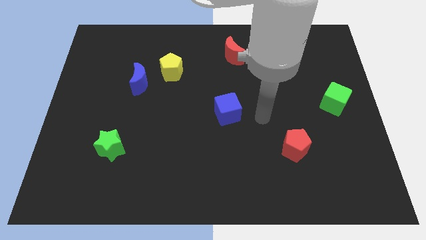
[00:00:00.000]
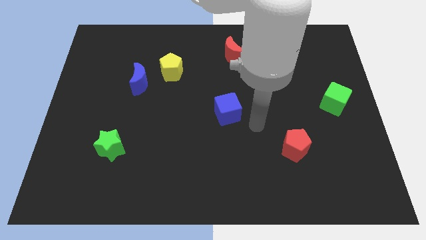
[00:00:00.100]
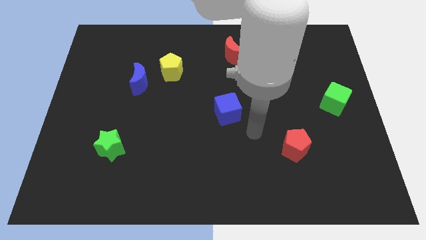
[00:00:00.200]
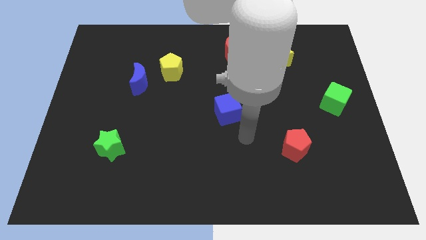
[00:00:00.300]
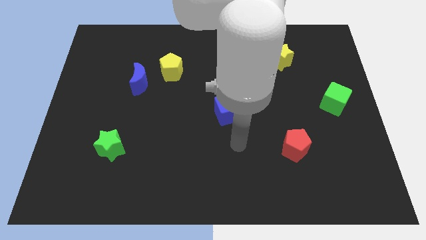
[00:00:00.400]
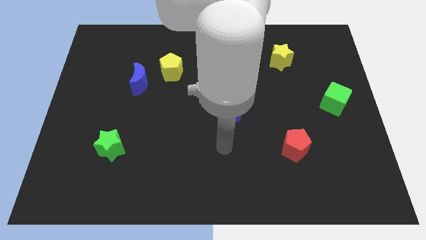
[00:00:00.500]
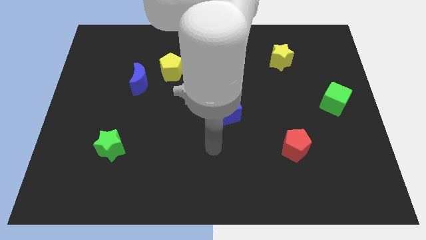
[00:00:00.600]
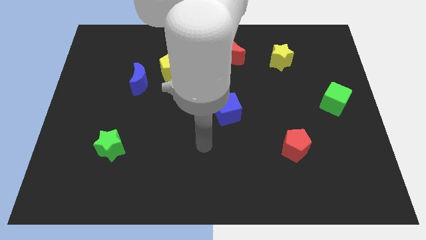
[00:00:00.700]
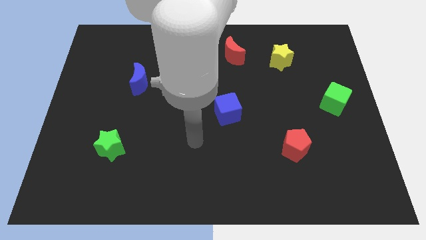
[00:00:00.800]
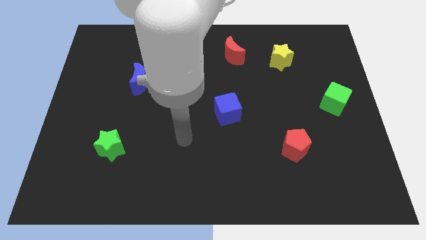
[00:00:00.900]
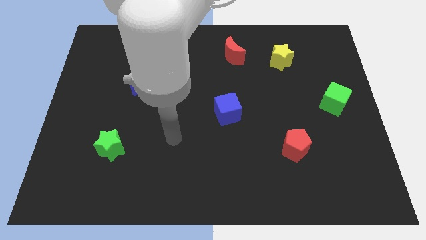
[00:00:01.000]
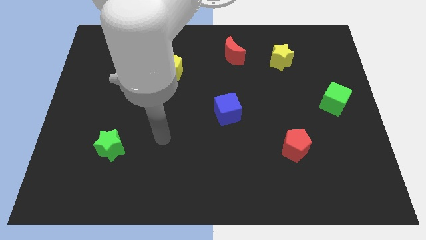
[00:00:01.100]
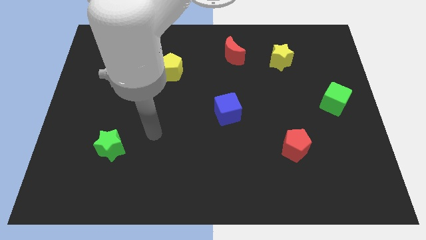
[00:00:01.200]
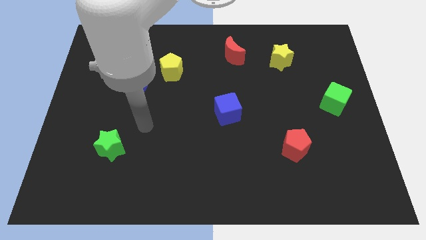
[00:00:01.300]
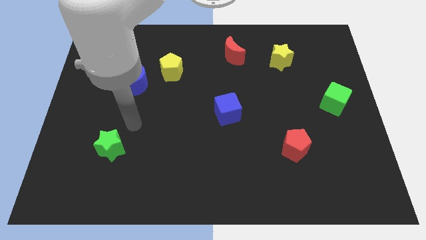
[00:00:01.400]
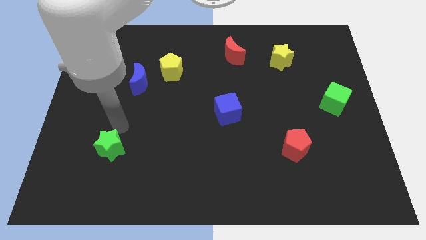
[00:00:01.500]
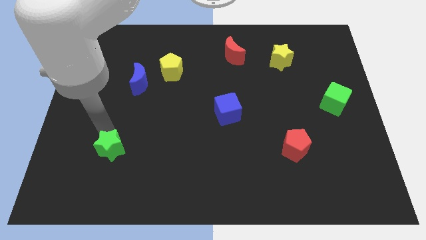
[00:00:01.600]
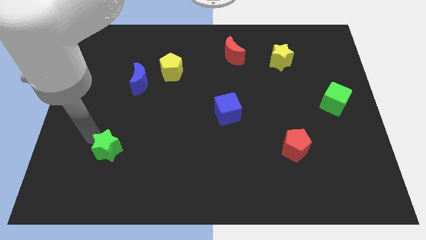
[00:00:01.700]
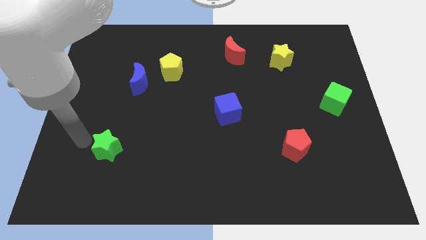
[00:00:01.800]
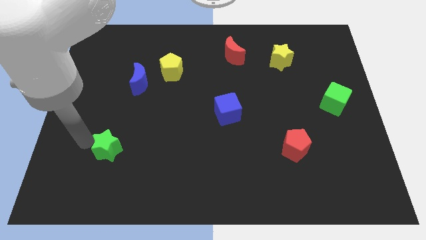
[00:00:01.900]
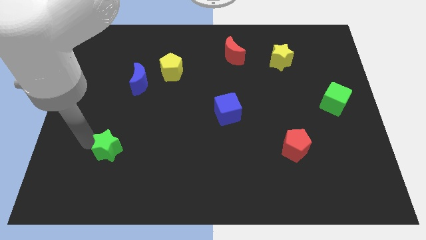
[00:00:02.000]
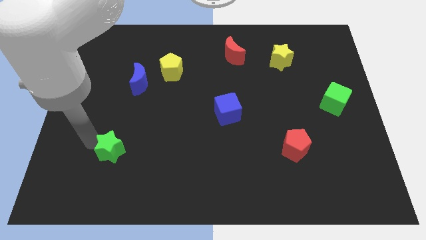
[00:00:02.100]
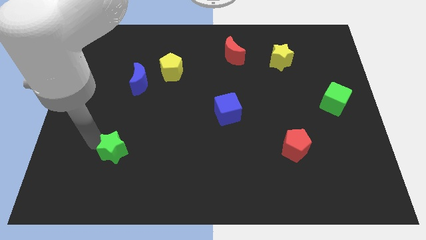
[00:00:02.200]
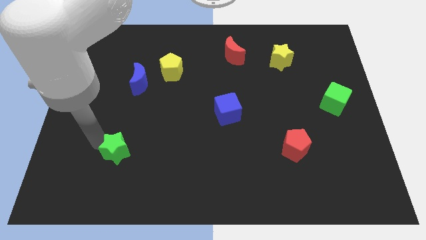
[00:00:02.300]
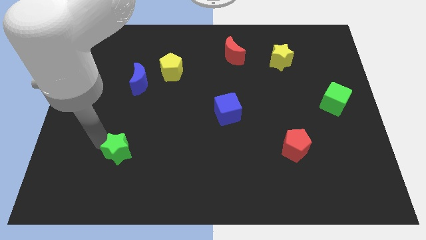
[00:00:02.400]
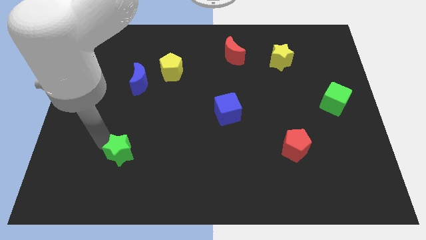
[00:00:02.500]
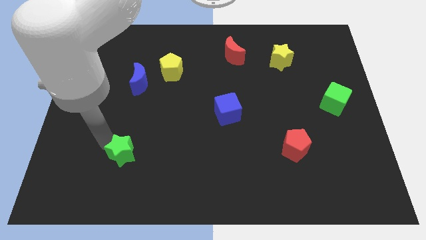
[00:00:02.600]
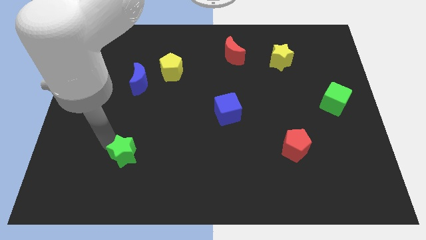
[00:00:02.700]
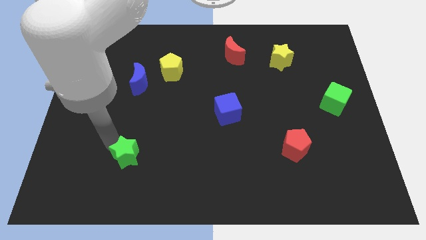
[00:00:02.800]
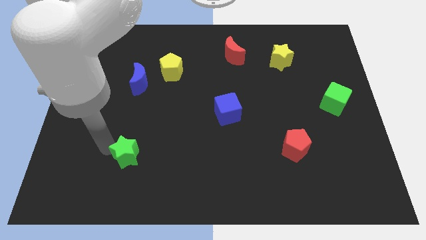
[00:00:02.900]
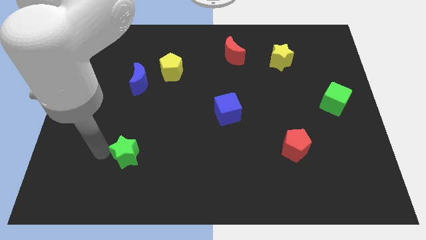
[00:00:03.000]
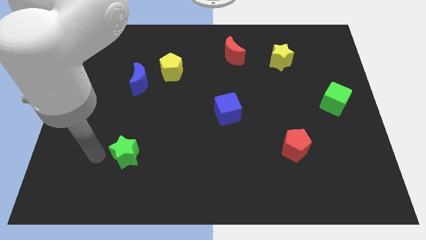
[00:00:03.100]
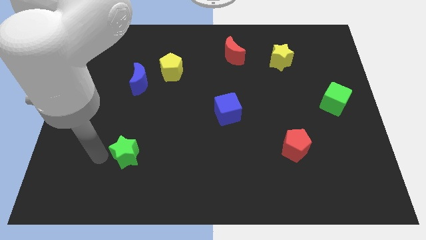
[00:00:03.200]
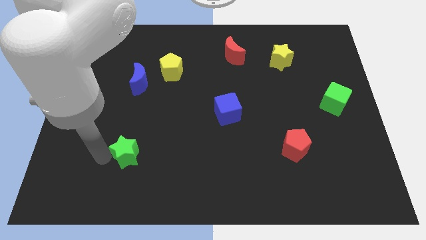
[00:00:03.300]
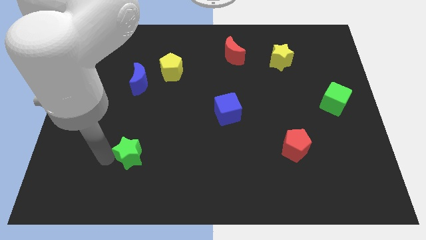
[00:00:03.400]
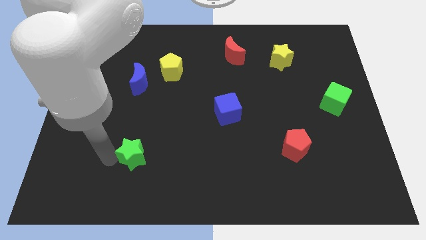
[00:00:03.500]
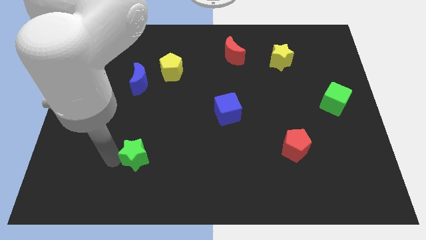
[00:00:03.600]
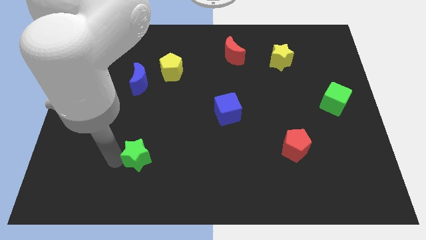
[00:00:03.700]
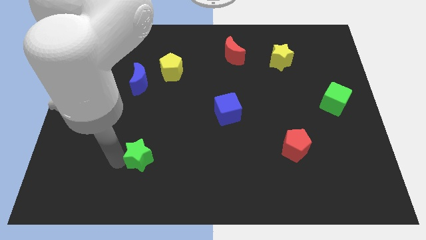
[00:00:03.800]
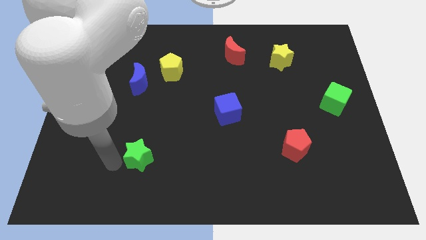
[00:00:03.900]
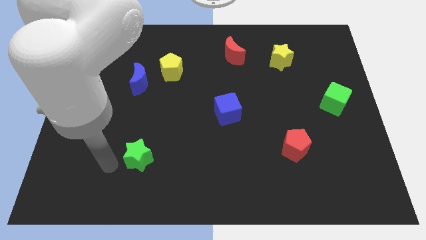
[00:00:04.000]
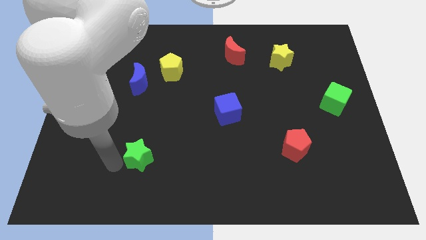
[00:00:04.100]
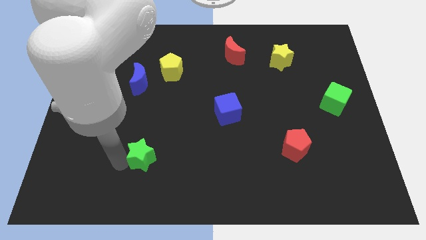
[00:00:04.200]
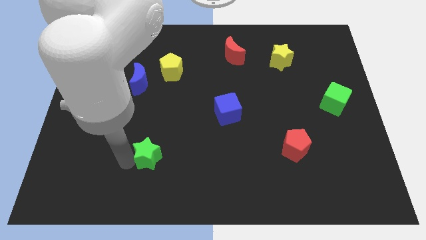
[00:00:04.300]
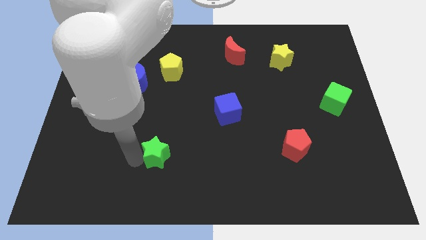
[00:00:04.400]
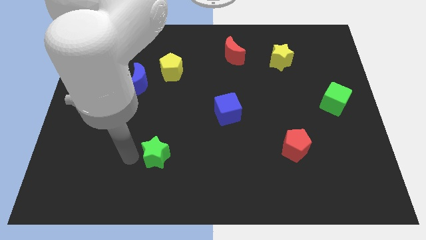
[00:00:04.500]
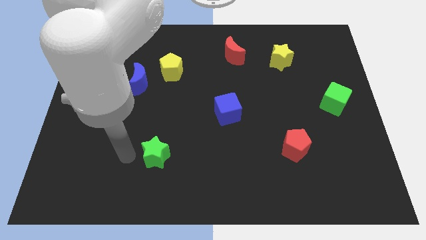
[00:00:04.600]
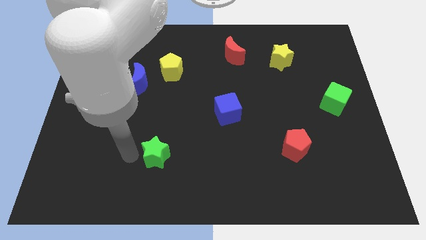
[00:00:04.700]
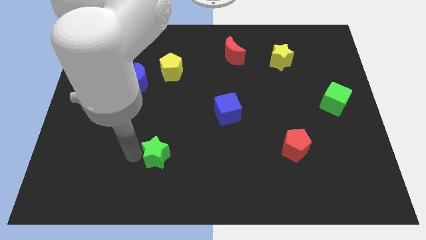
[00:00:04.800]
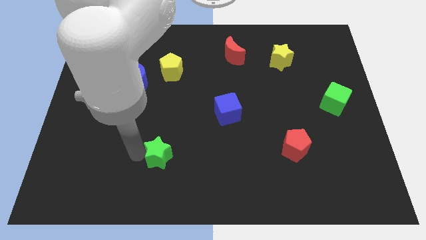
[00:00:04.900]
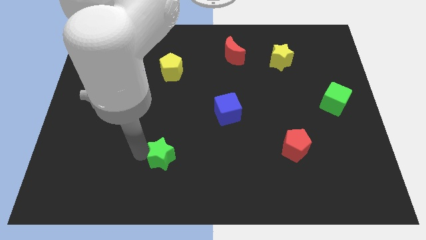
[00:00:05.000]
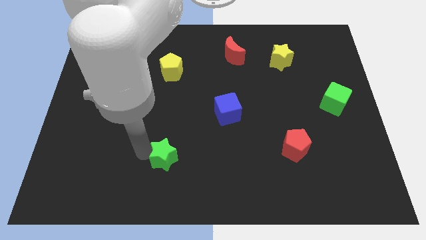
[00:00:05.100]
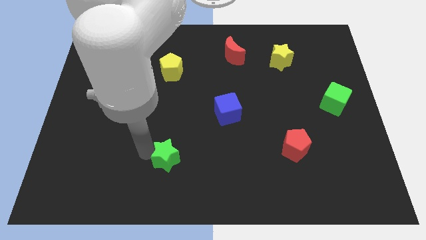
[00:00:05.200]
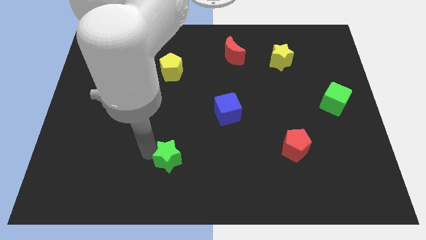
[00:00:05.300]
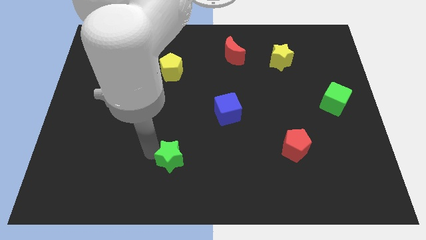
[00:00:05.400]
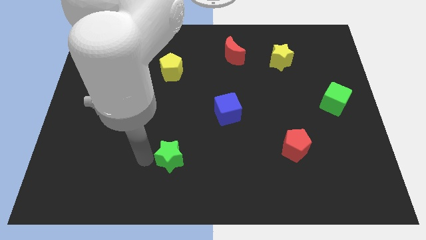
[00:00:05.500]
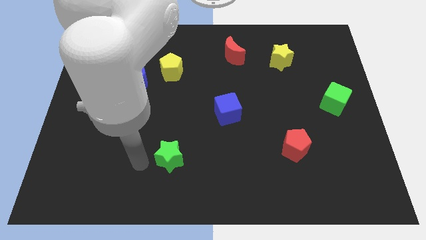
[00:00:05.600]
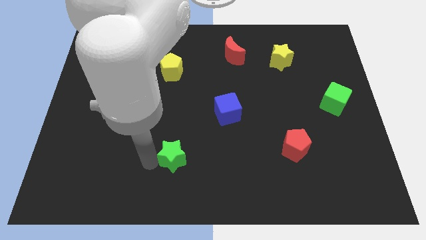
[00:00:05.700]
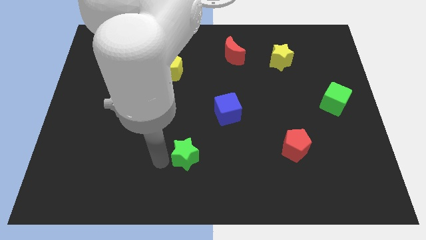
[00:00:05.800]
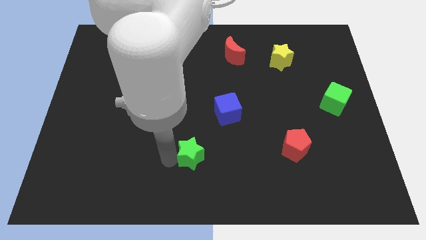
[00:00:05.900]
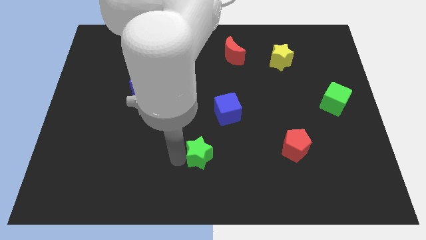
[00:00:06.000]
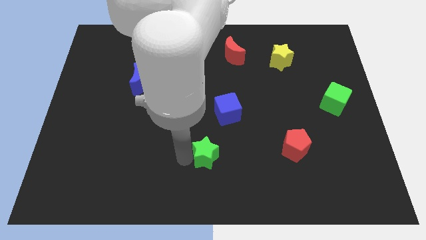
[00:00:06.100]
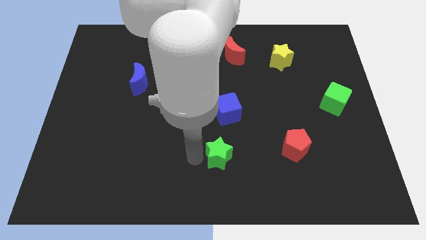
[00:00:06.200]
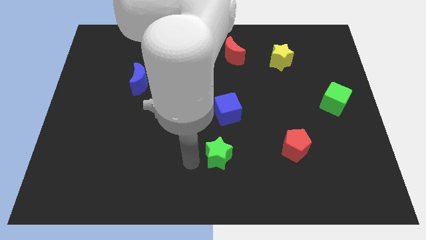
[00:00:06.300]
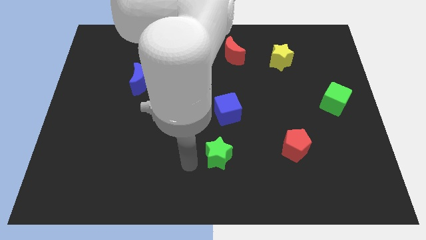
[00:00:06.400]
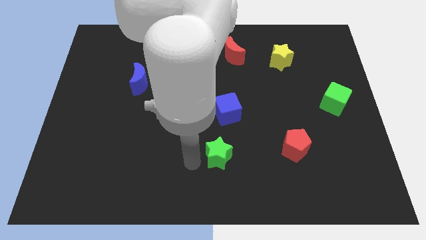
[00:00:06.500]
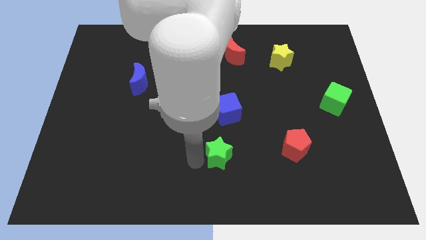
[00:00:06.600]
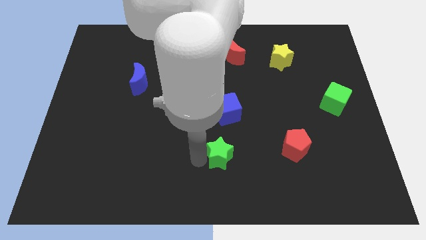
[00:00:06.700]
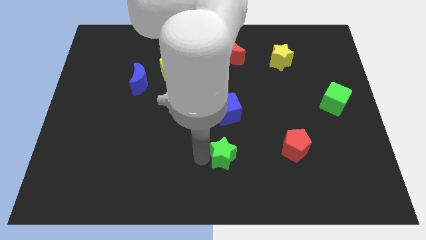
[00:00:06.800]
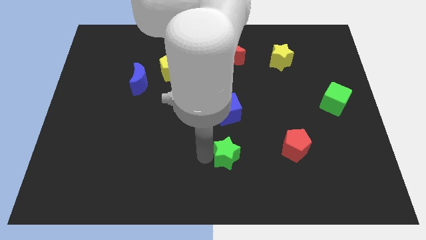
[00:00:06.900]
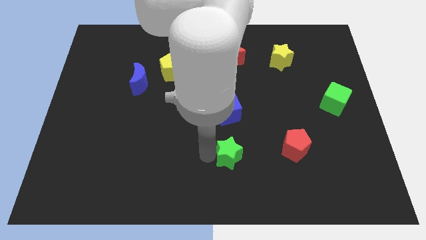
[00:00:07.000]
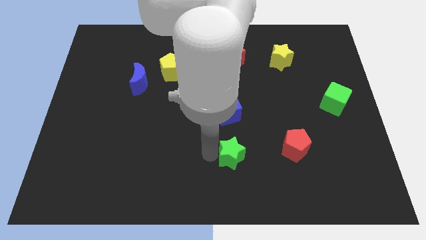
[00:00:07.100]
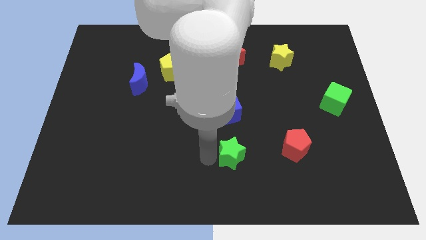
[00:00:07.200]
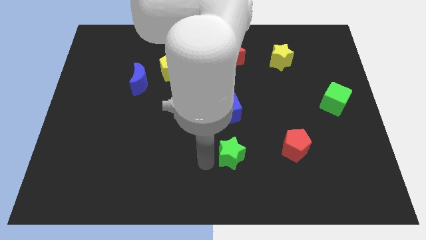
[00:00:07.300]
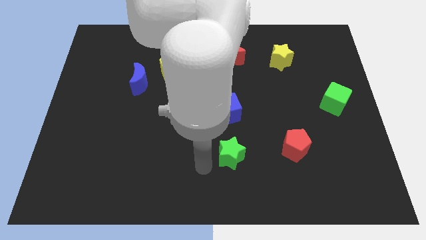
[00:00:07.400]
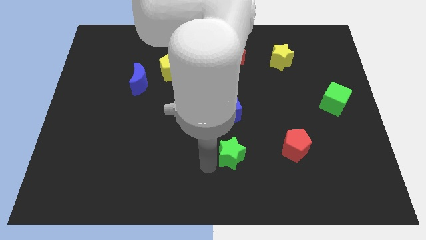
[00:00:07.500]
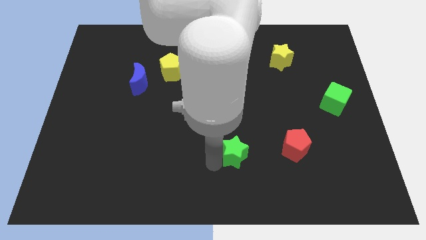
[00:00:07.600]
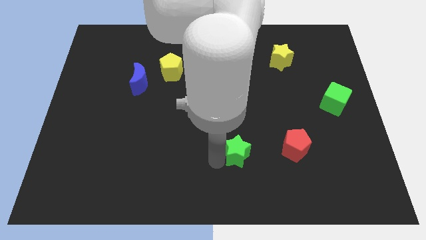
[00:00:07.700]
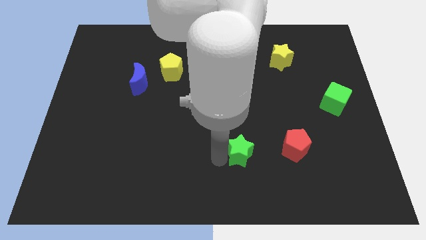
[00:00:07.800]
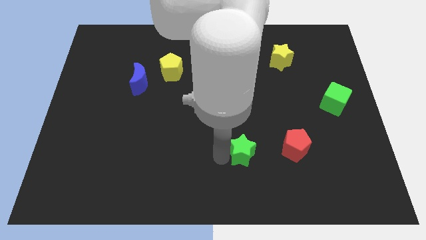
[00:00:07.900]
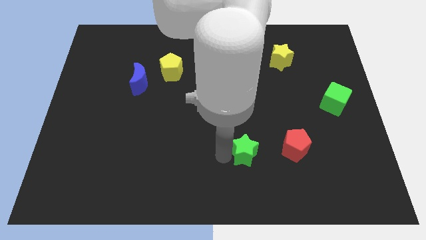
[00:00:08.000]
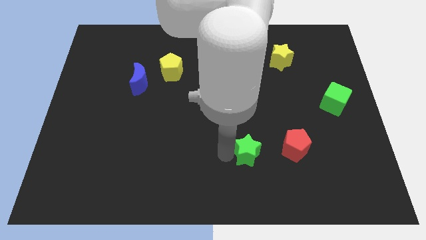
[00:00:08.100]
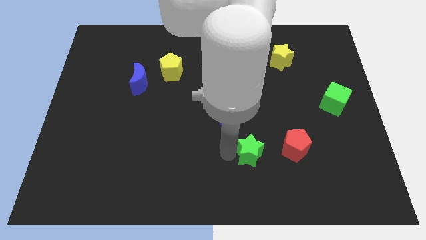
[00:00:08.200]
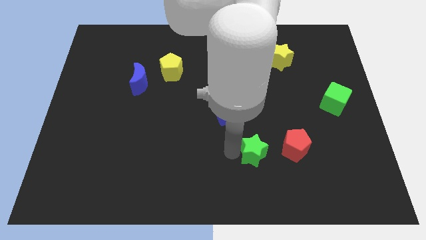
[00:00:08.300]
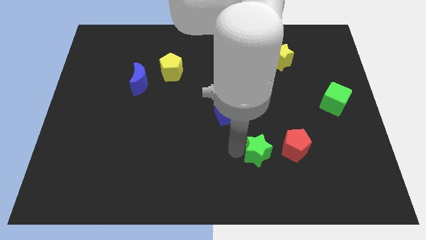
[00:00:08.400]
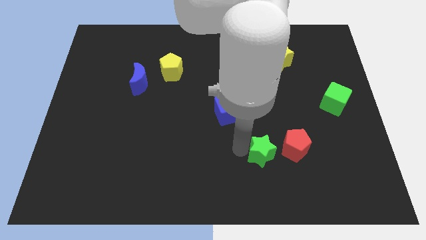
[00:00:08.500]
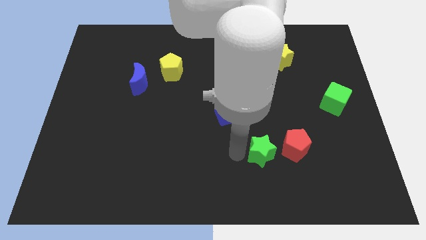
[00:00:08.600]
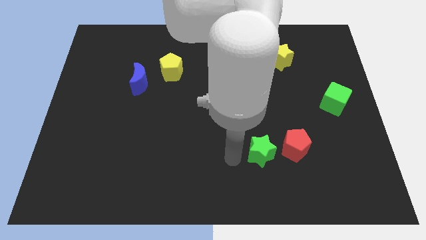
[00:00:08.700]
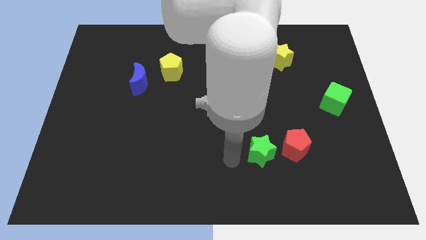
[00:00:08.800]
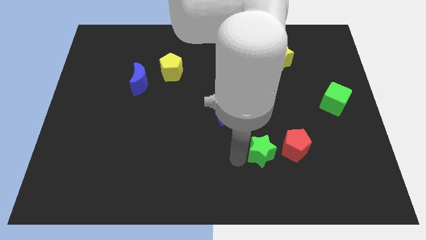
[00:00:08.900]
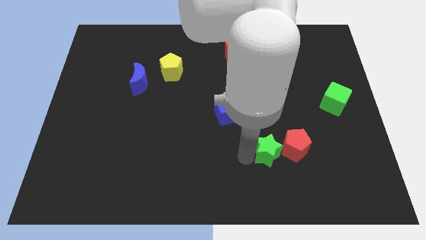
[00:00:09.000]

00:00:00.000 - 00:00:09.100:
slide the green star next to the red pentagon
